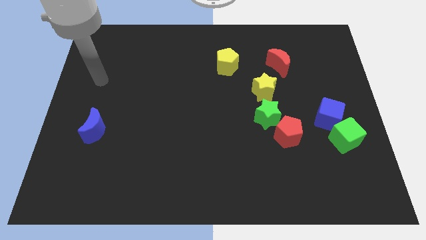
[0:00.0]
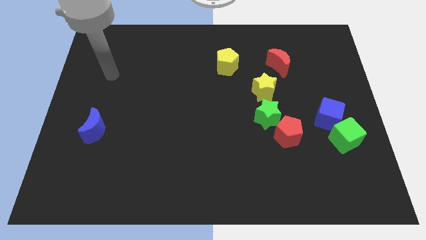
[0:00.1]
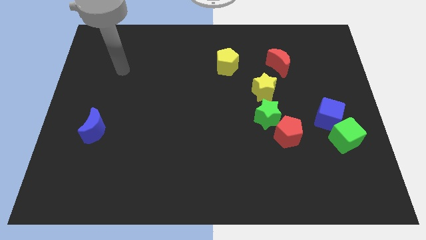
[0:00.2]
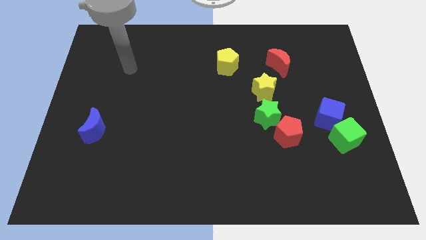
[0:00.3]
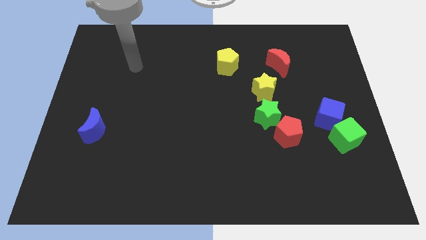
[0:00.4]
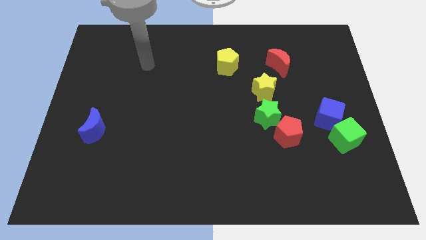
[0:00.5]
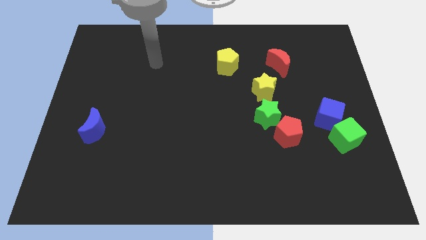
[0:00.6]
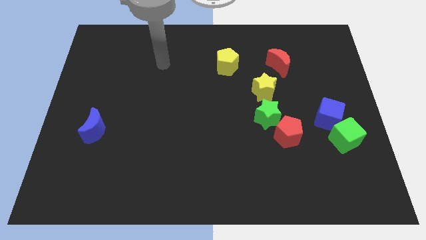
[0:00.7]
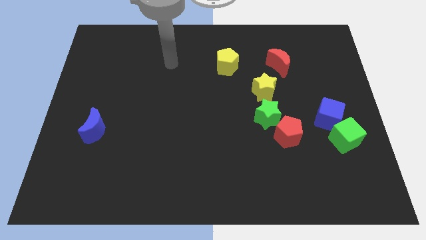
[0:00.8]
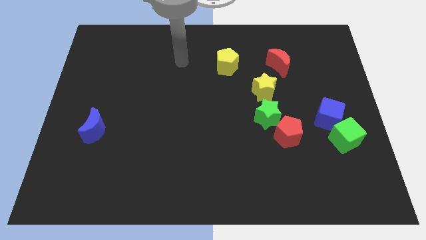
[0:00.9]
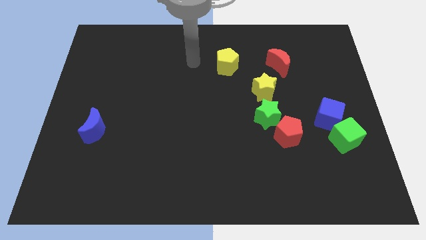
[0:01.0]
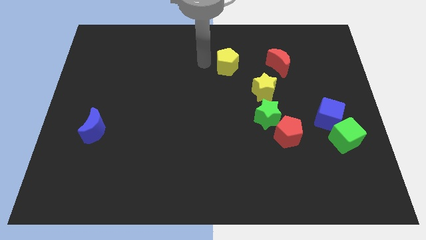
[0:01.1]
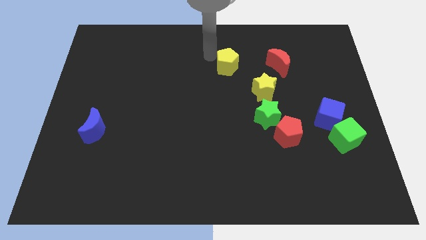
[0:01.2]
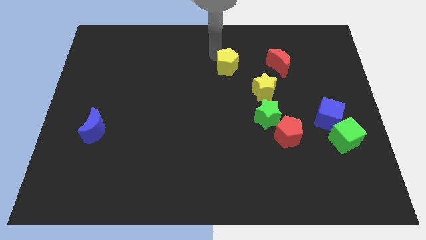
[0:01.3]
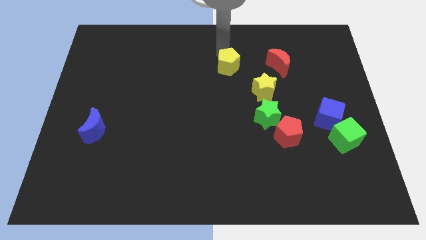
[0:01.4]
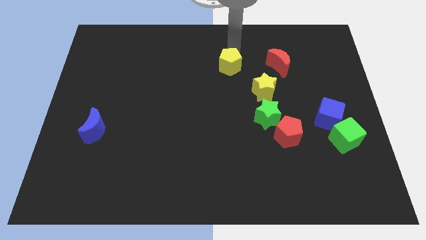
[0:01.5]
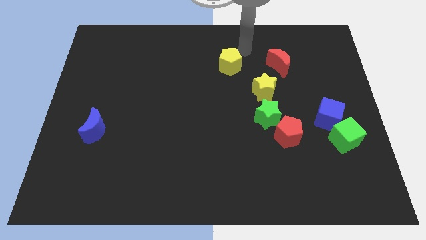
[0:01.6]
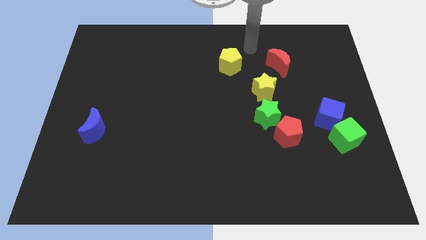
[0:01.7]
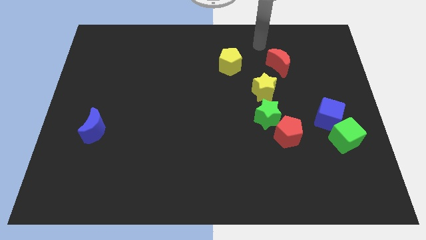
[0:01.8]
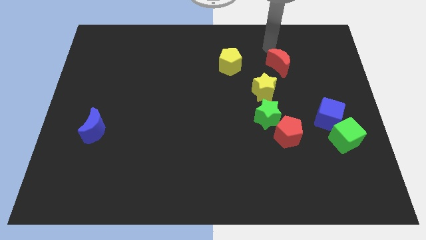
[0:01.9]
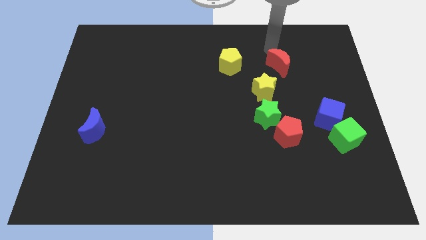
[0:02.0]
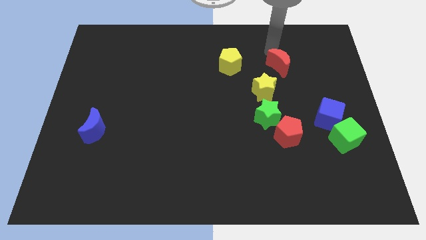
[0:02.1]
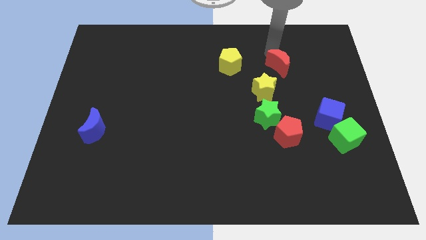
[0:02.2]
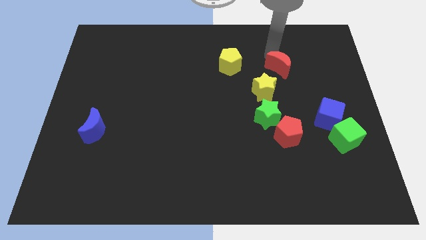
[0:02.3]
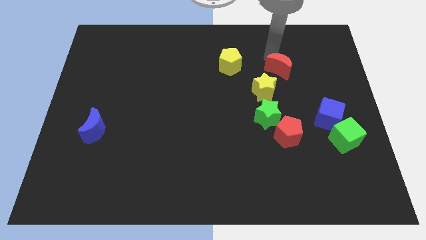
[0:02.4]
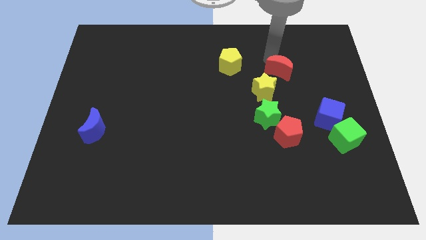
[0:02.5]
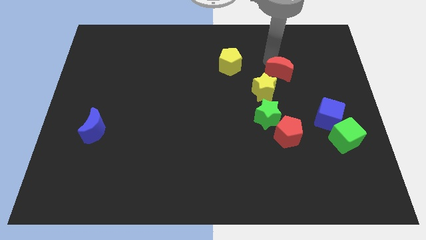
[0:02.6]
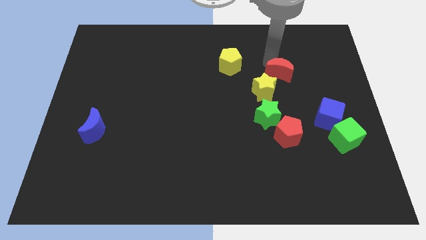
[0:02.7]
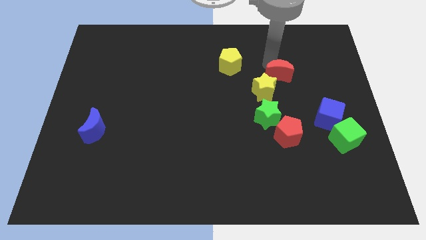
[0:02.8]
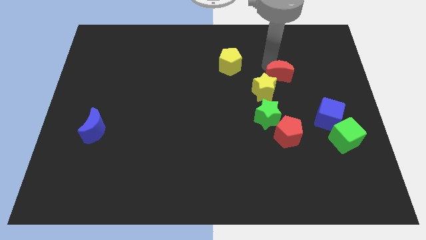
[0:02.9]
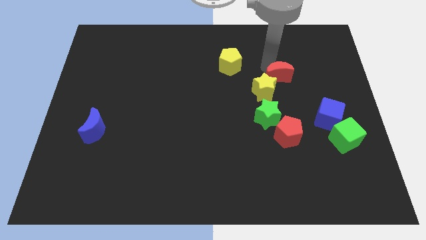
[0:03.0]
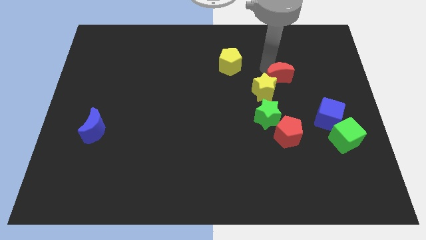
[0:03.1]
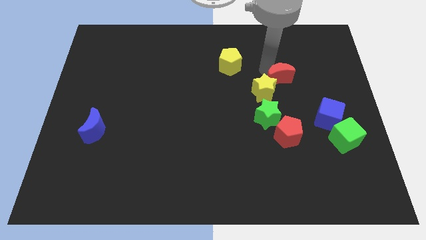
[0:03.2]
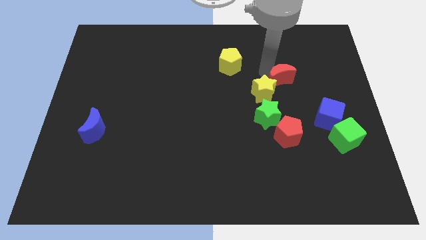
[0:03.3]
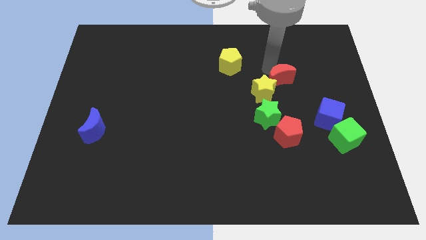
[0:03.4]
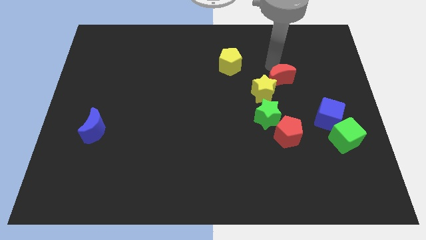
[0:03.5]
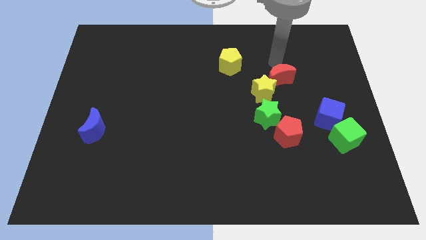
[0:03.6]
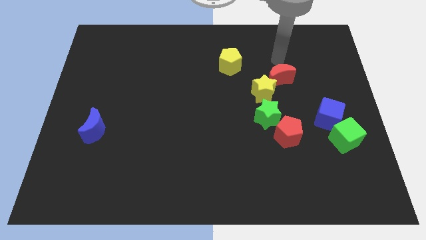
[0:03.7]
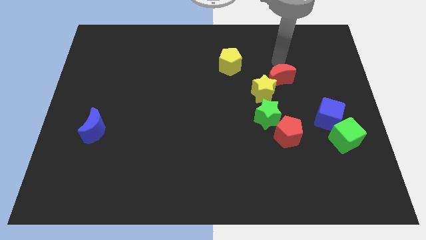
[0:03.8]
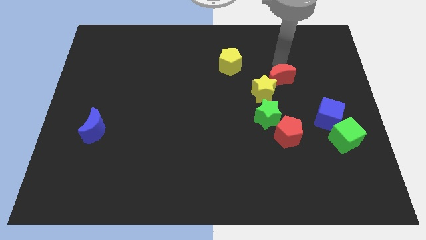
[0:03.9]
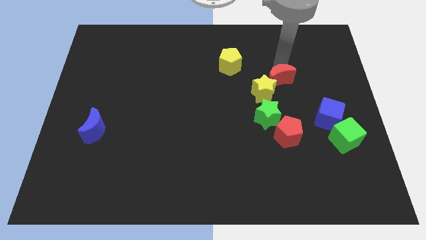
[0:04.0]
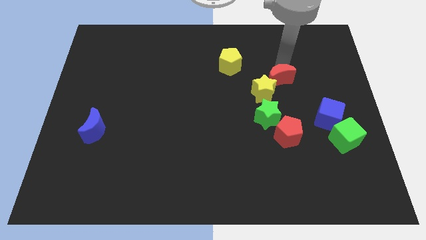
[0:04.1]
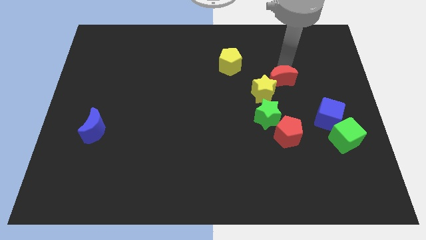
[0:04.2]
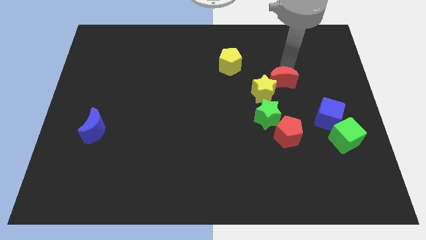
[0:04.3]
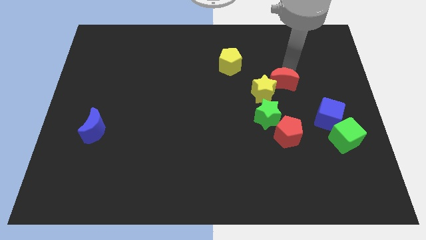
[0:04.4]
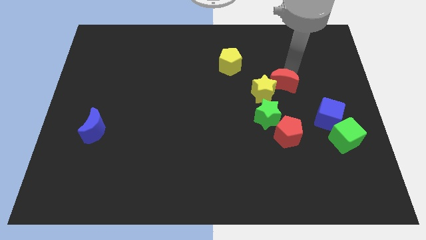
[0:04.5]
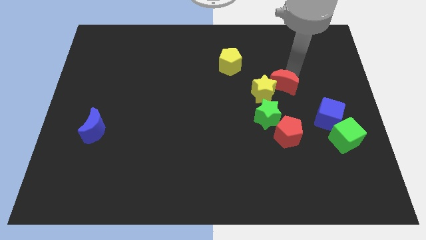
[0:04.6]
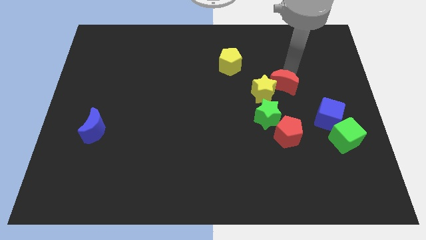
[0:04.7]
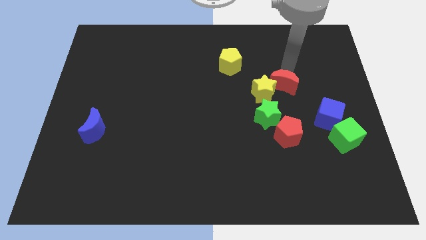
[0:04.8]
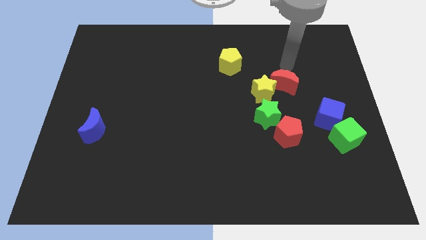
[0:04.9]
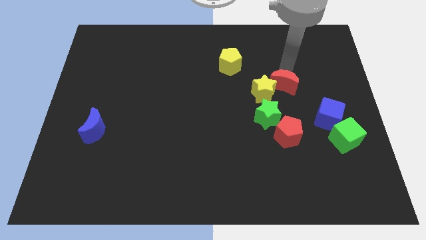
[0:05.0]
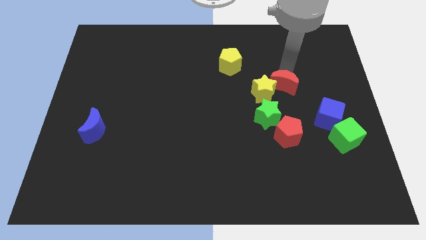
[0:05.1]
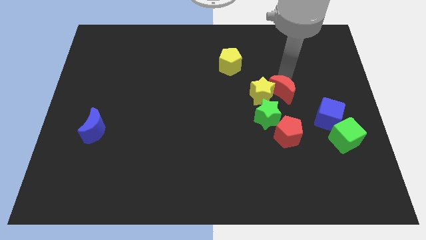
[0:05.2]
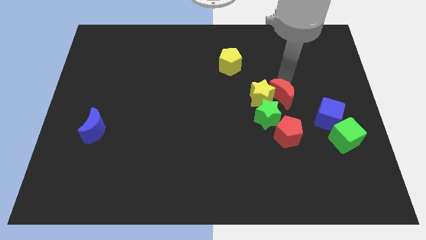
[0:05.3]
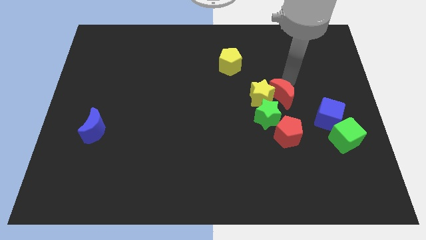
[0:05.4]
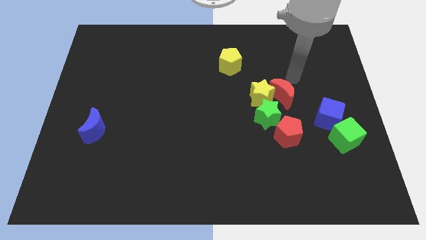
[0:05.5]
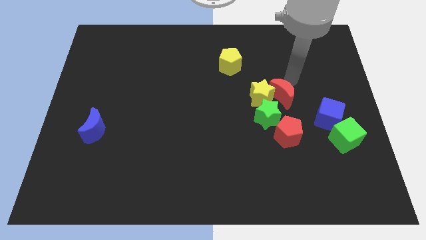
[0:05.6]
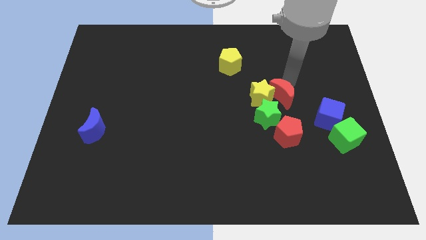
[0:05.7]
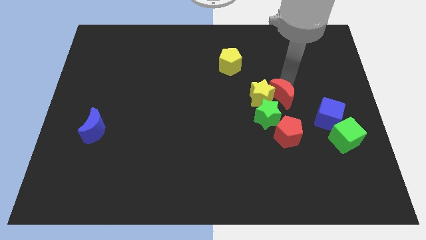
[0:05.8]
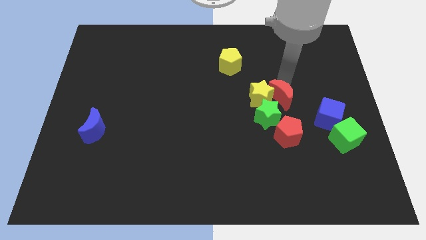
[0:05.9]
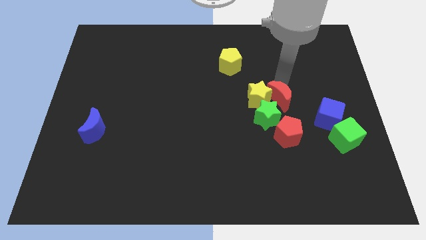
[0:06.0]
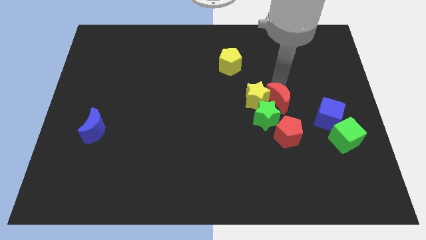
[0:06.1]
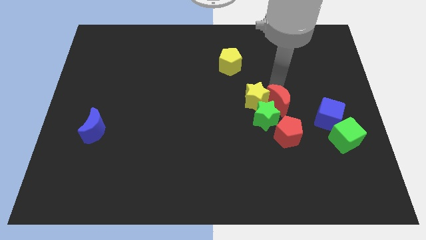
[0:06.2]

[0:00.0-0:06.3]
slide the red moon towards the green star

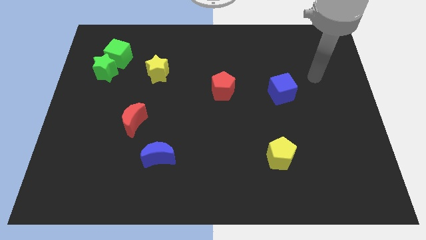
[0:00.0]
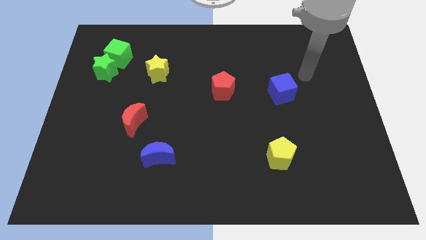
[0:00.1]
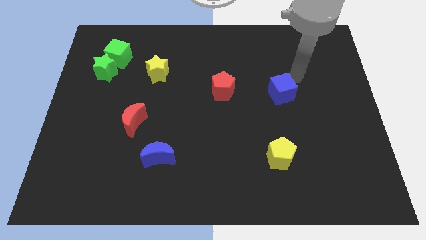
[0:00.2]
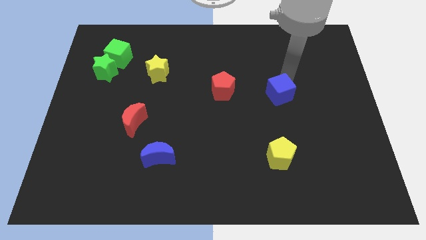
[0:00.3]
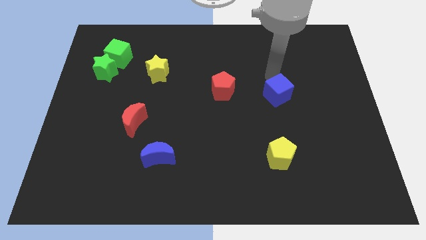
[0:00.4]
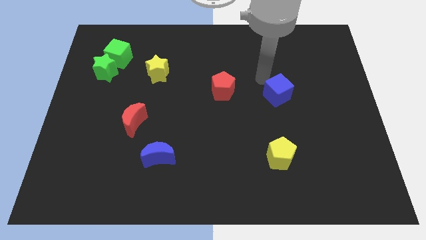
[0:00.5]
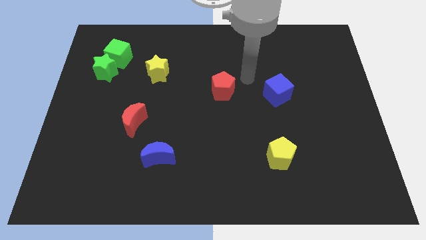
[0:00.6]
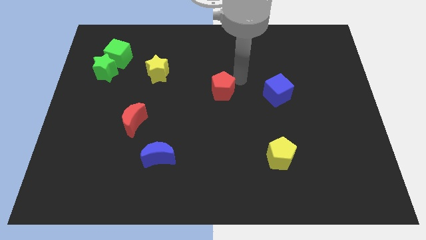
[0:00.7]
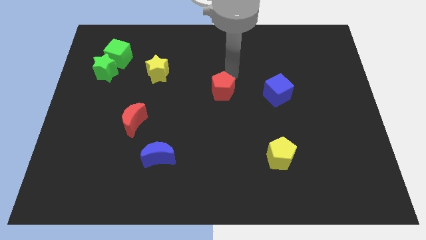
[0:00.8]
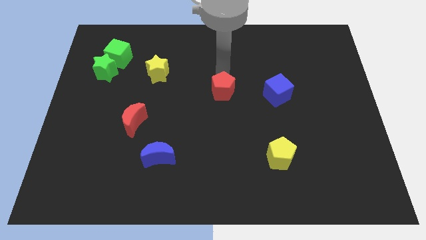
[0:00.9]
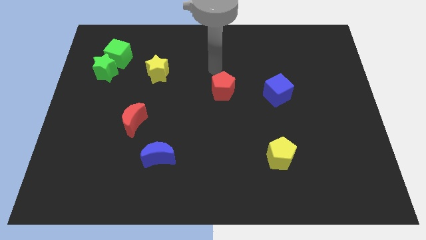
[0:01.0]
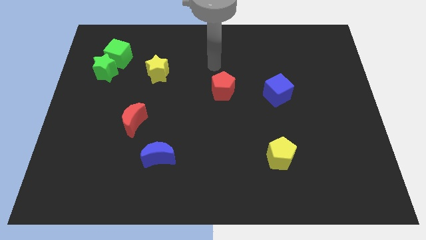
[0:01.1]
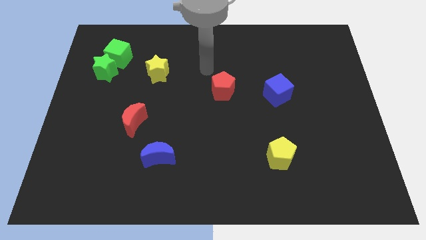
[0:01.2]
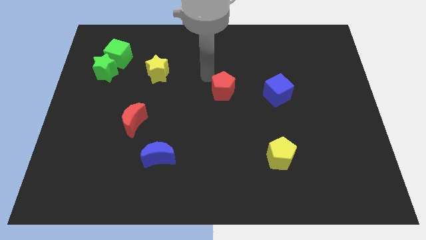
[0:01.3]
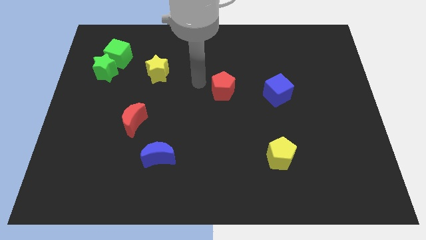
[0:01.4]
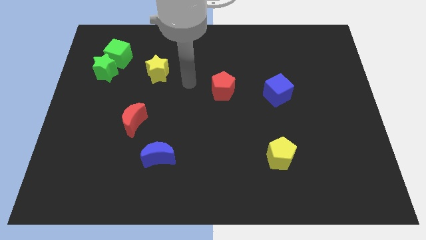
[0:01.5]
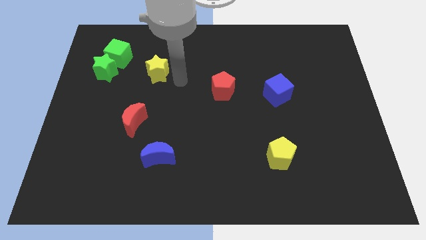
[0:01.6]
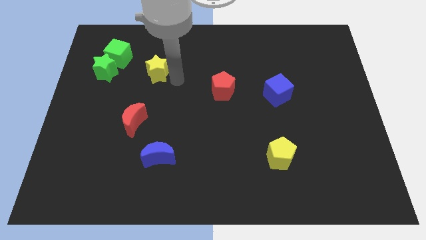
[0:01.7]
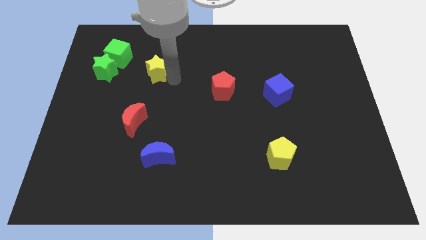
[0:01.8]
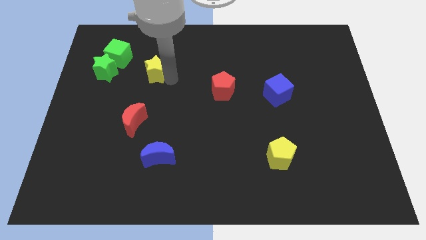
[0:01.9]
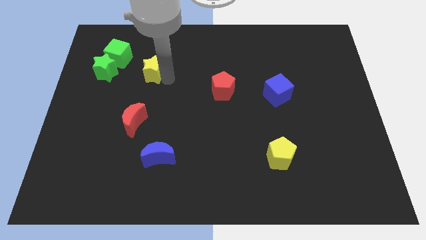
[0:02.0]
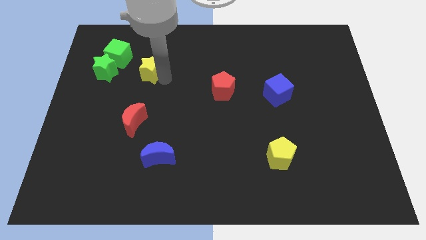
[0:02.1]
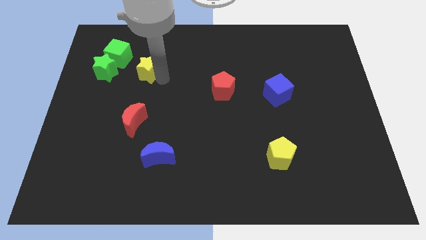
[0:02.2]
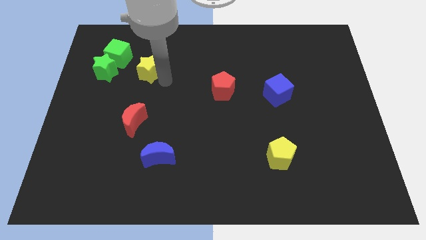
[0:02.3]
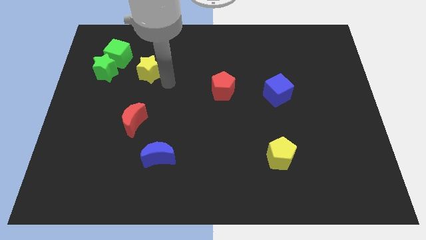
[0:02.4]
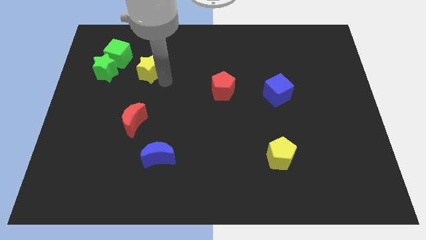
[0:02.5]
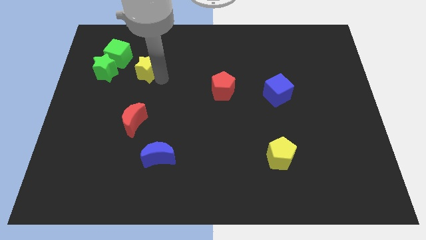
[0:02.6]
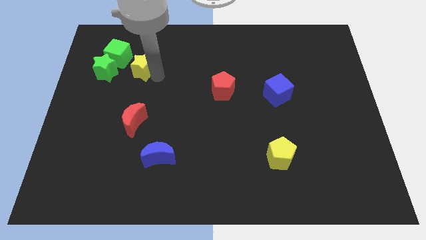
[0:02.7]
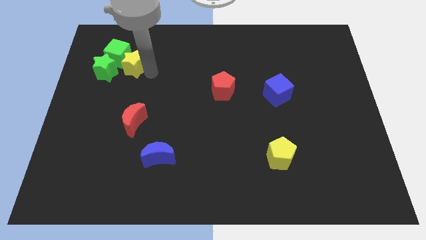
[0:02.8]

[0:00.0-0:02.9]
move the yellow star to the green cube
